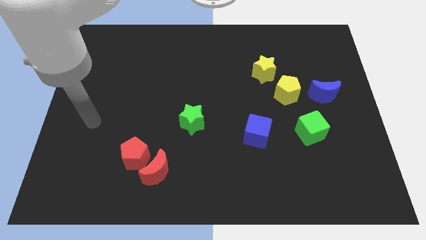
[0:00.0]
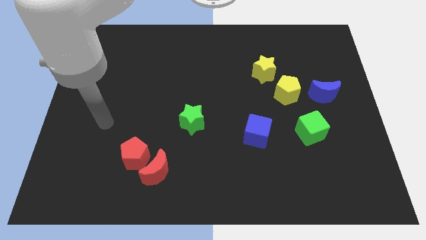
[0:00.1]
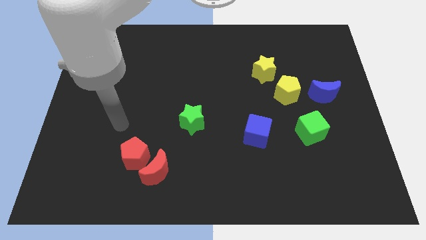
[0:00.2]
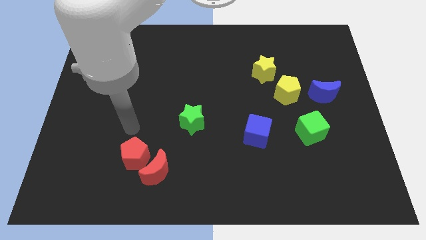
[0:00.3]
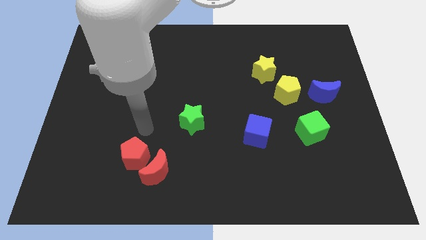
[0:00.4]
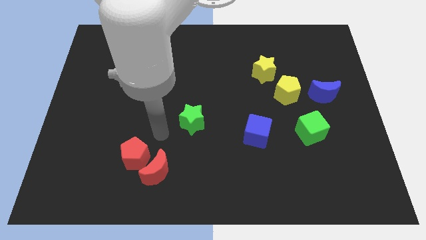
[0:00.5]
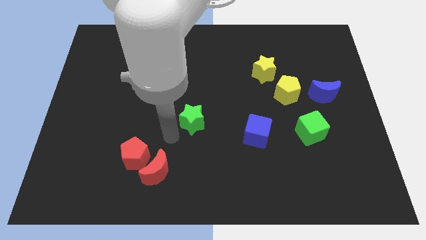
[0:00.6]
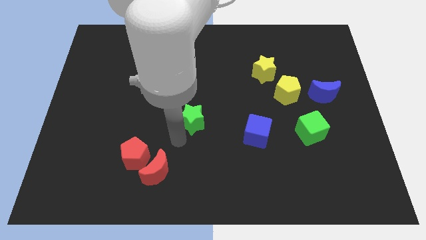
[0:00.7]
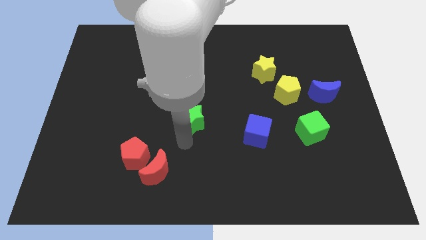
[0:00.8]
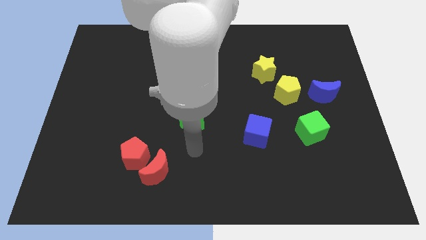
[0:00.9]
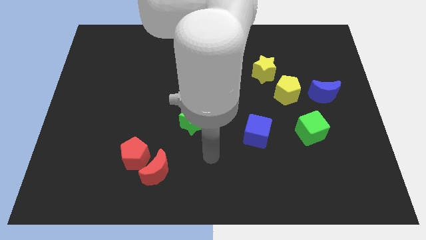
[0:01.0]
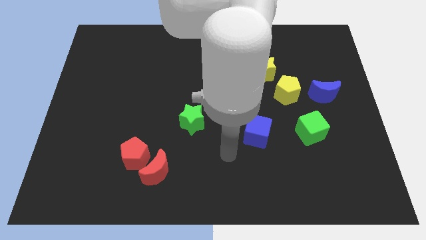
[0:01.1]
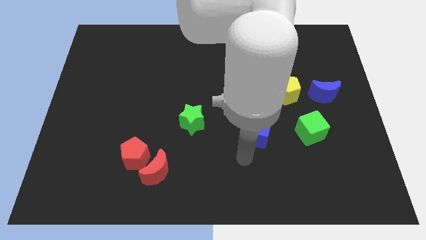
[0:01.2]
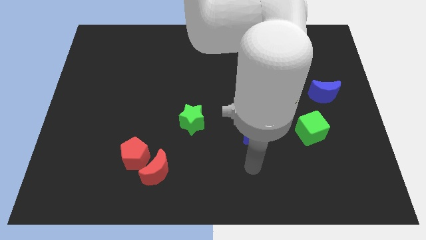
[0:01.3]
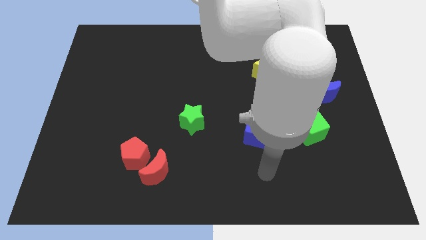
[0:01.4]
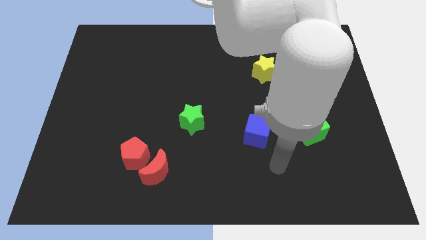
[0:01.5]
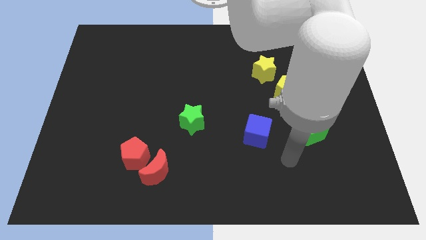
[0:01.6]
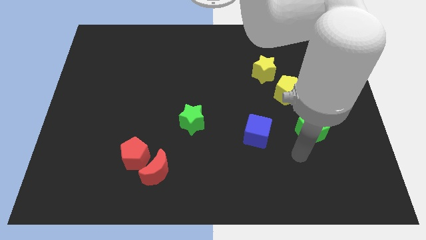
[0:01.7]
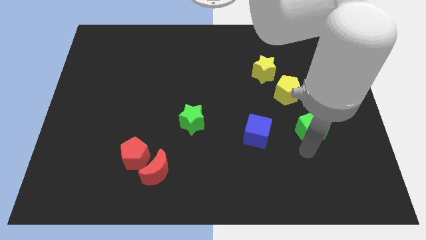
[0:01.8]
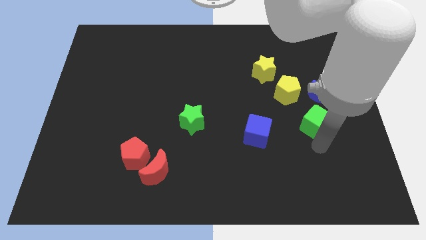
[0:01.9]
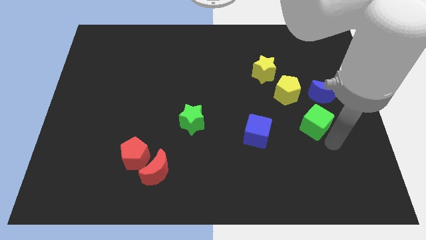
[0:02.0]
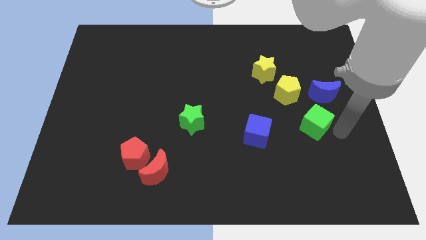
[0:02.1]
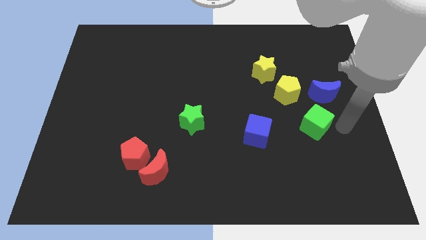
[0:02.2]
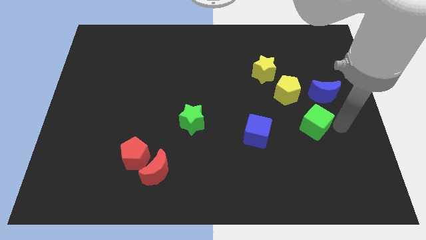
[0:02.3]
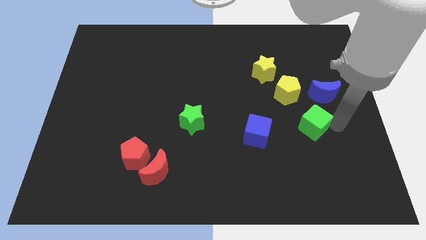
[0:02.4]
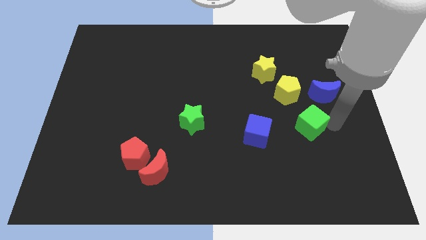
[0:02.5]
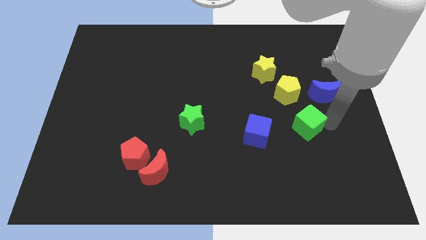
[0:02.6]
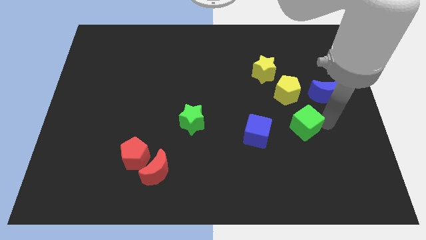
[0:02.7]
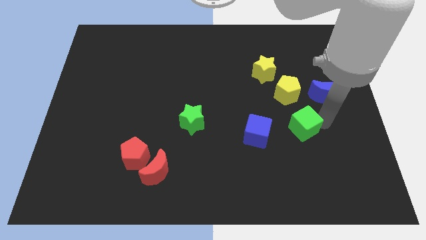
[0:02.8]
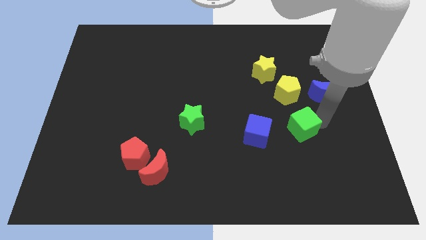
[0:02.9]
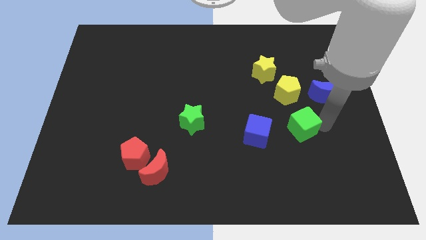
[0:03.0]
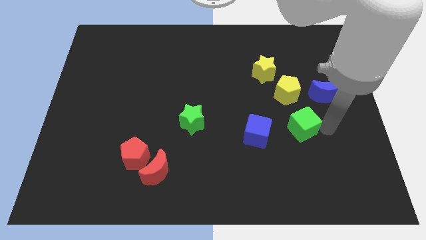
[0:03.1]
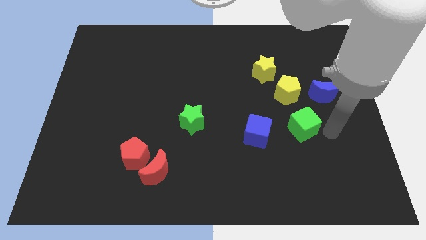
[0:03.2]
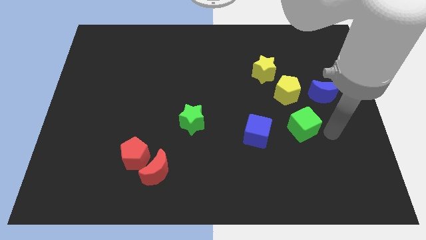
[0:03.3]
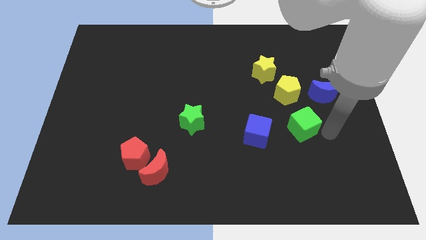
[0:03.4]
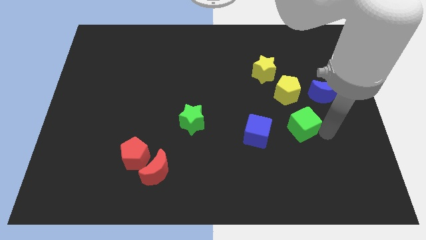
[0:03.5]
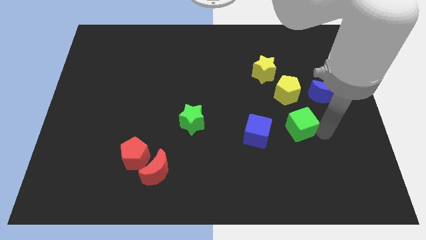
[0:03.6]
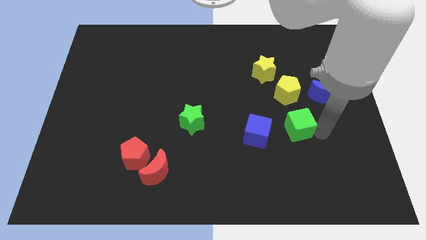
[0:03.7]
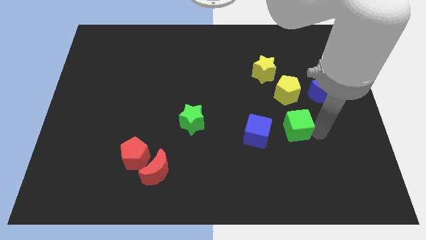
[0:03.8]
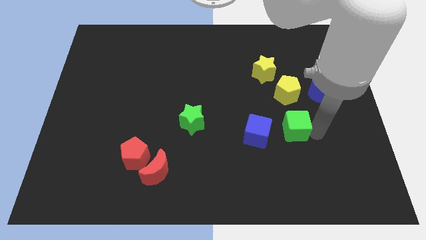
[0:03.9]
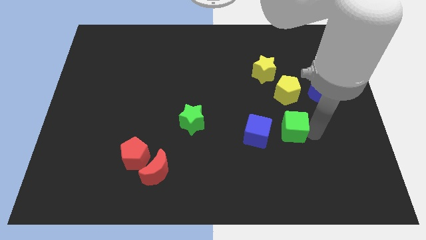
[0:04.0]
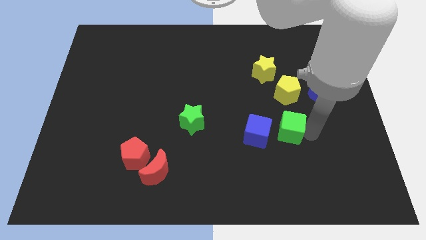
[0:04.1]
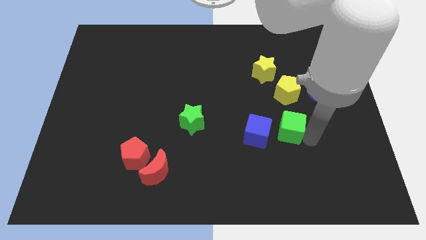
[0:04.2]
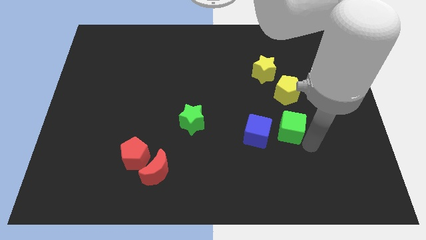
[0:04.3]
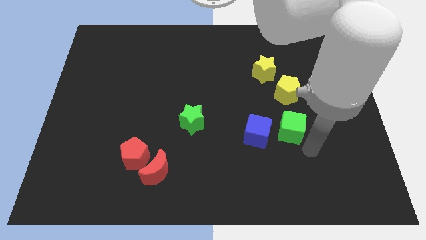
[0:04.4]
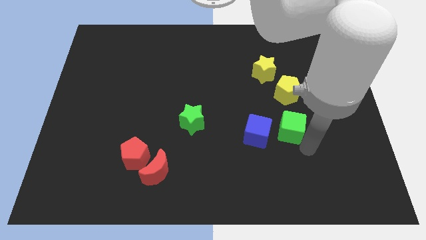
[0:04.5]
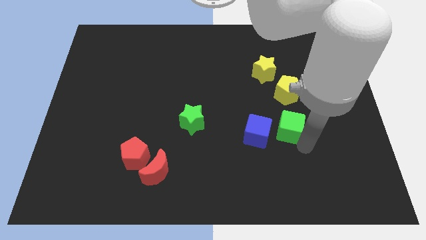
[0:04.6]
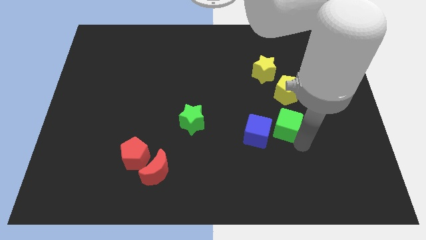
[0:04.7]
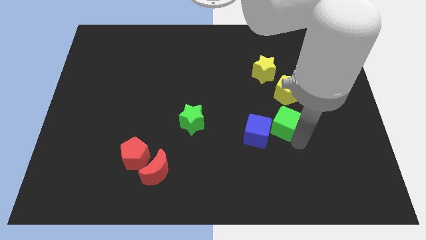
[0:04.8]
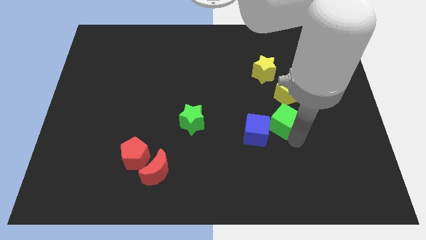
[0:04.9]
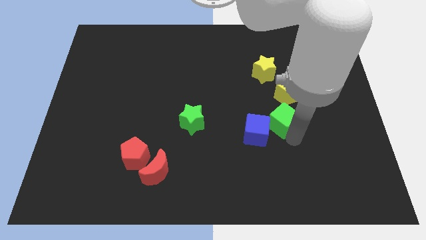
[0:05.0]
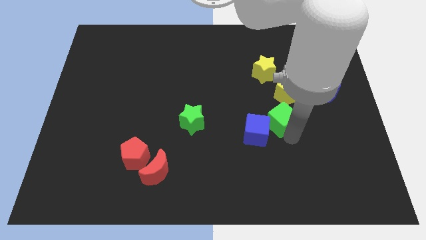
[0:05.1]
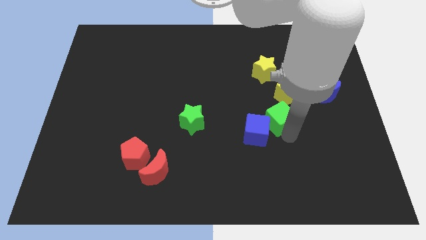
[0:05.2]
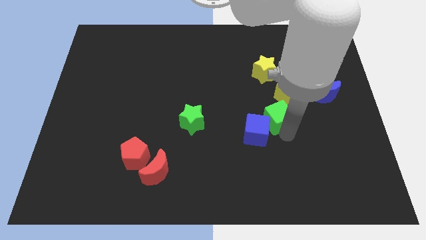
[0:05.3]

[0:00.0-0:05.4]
slide the green cube a little bit diagonally upwards and to the left

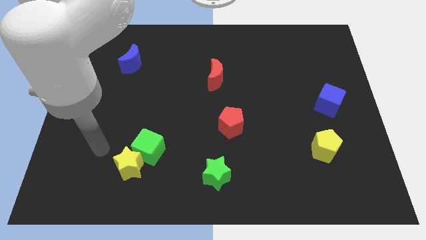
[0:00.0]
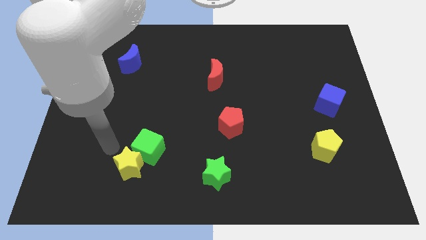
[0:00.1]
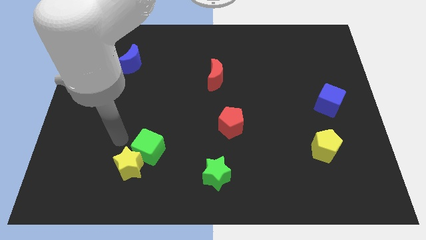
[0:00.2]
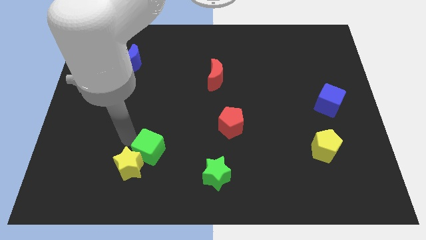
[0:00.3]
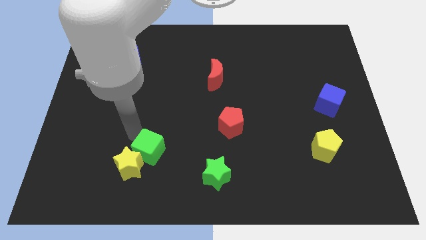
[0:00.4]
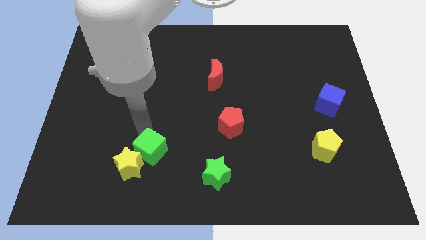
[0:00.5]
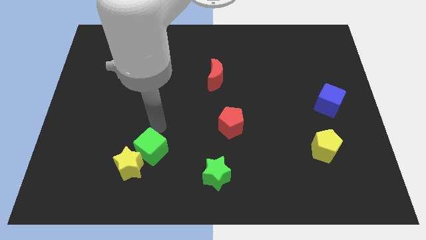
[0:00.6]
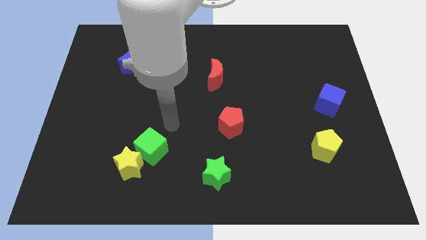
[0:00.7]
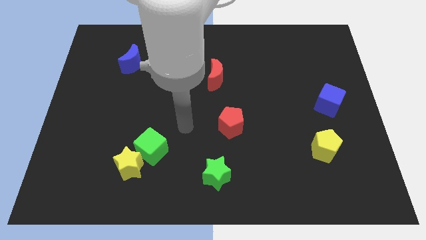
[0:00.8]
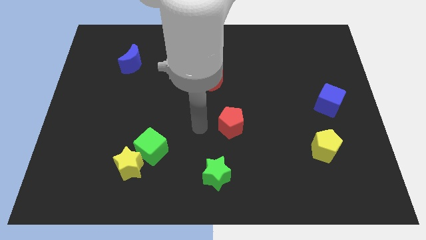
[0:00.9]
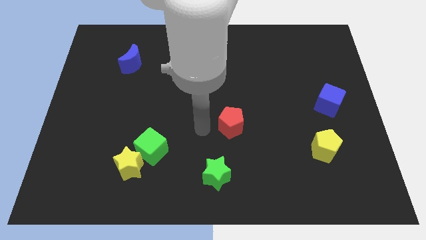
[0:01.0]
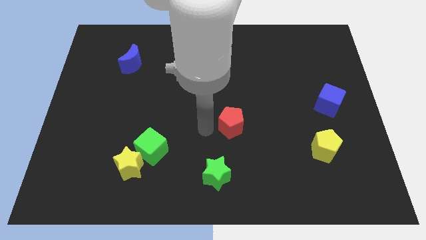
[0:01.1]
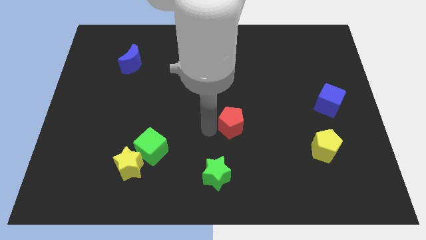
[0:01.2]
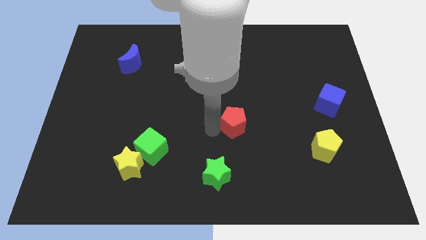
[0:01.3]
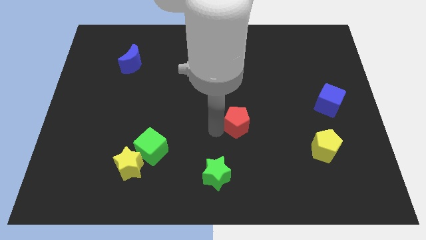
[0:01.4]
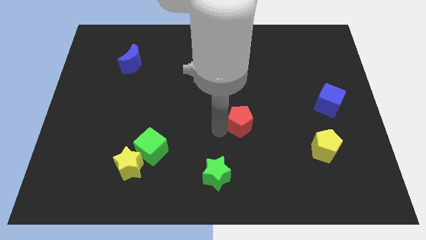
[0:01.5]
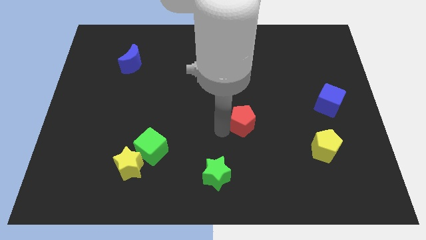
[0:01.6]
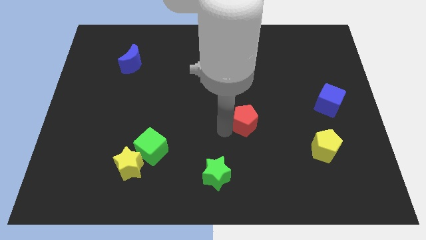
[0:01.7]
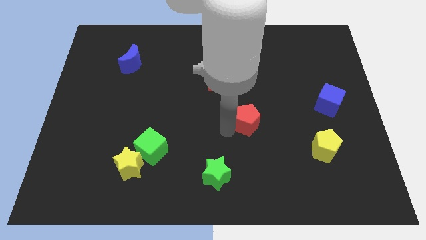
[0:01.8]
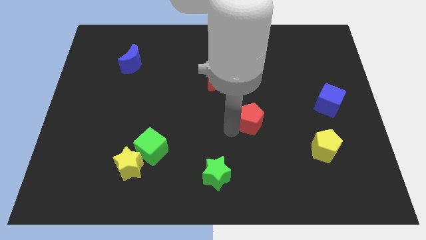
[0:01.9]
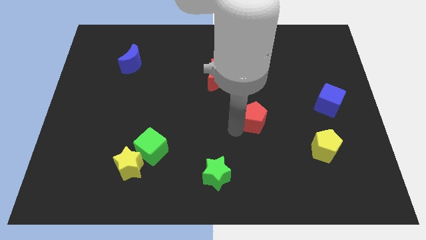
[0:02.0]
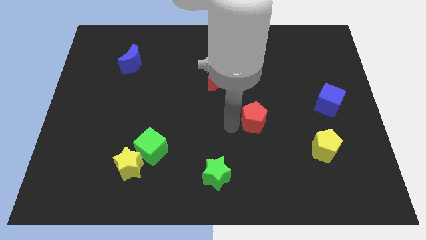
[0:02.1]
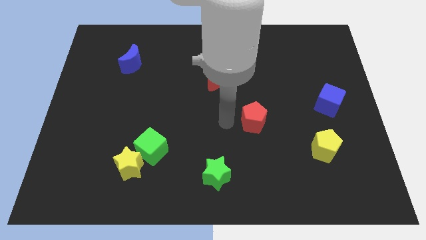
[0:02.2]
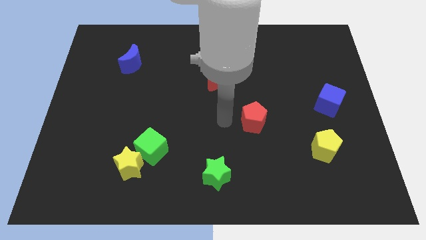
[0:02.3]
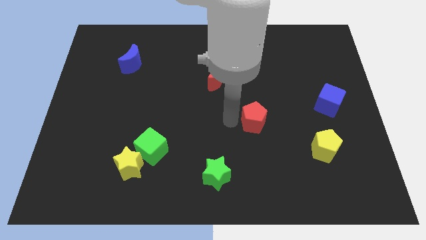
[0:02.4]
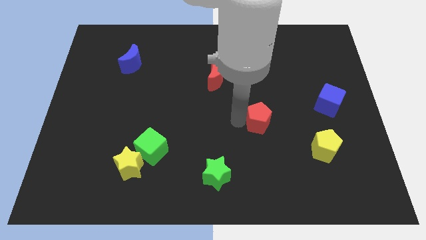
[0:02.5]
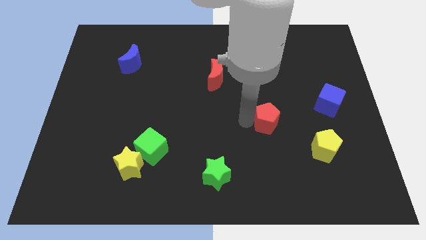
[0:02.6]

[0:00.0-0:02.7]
push the red pentagon somewhat right

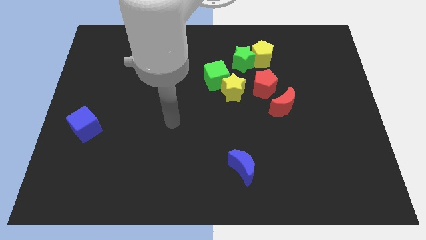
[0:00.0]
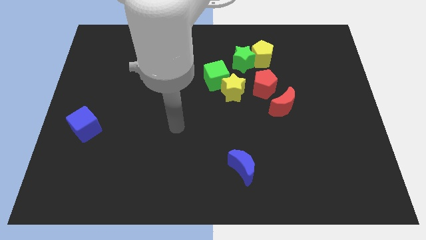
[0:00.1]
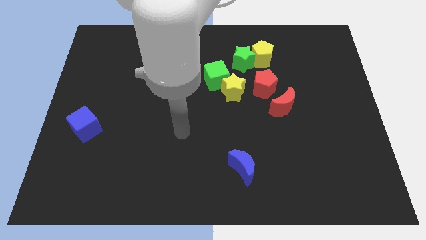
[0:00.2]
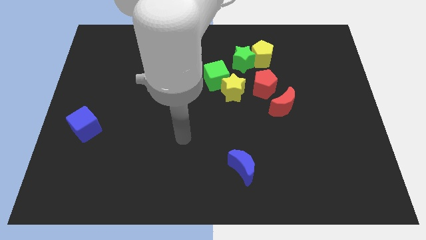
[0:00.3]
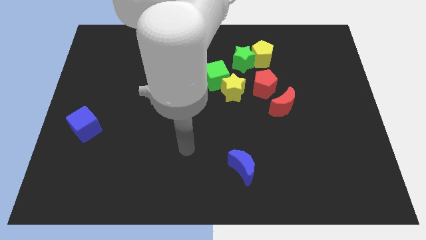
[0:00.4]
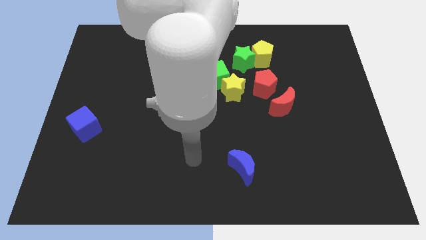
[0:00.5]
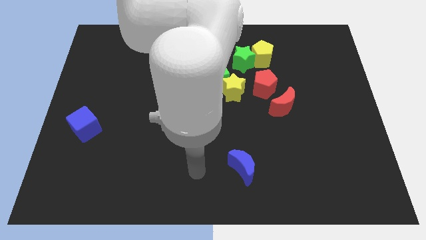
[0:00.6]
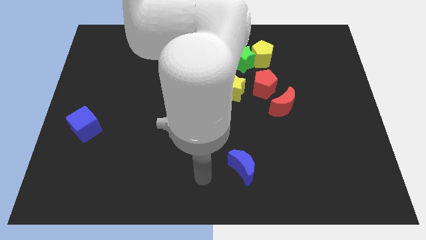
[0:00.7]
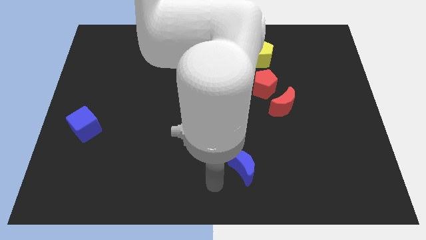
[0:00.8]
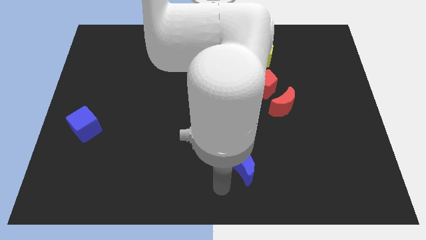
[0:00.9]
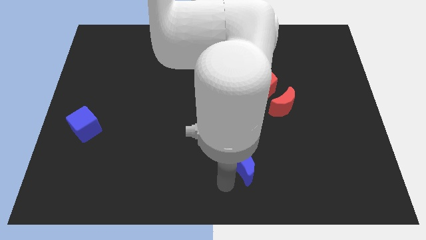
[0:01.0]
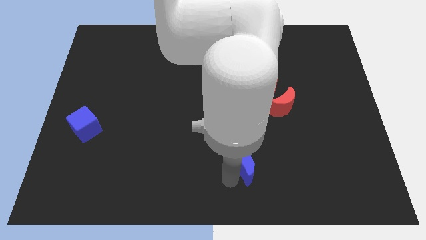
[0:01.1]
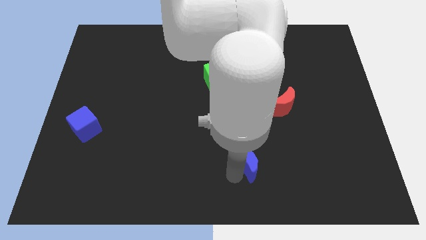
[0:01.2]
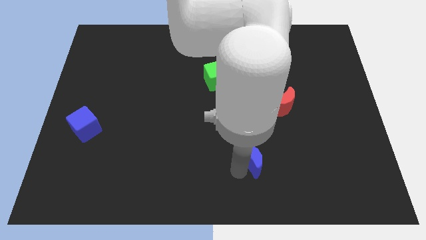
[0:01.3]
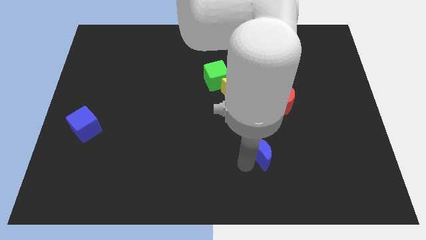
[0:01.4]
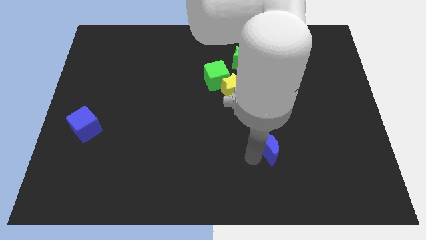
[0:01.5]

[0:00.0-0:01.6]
slightly push the blue moon upwards and to the right diagonally
